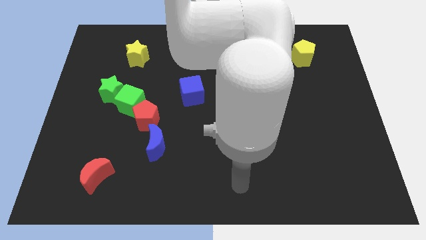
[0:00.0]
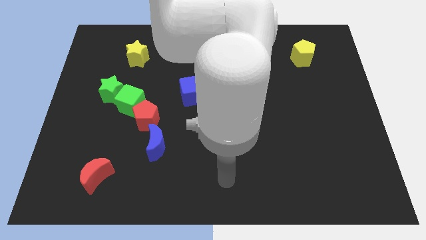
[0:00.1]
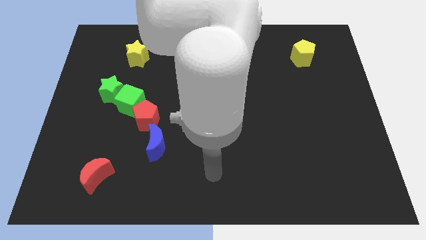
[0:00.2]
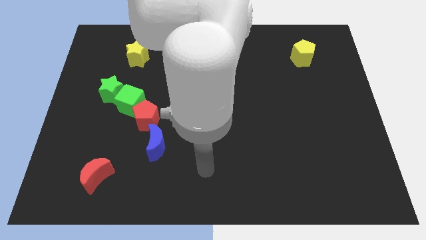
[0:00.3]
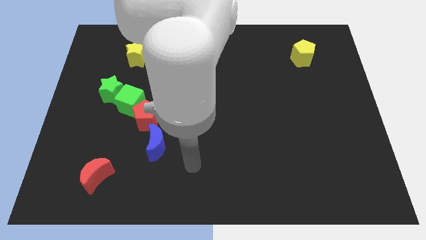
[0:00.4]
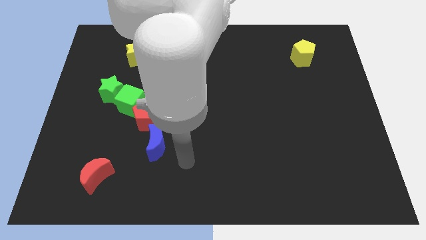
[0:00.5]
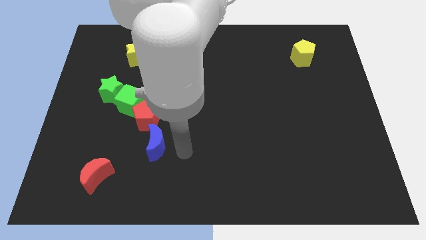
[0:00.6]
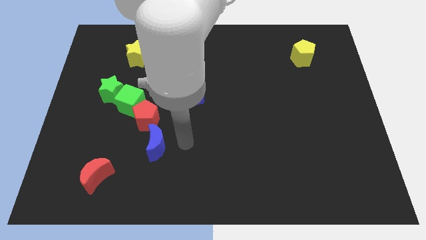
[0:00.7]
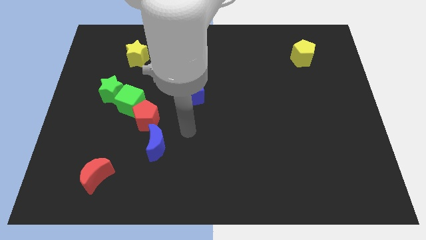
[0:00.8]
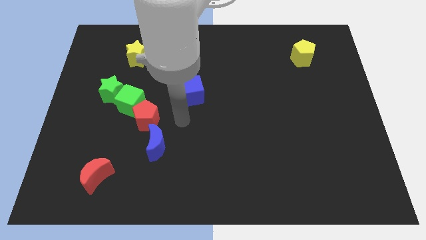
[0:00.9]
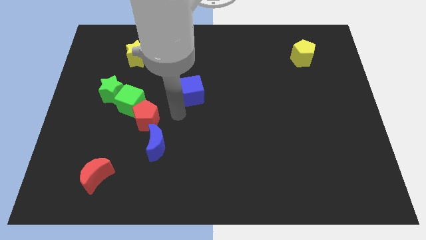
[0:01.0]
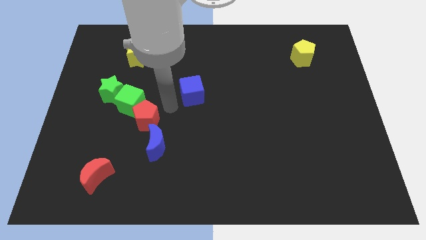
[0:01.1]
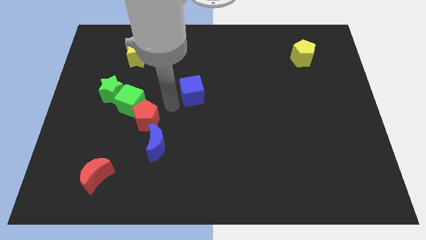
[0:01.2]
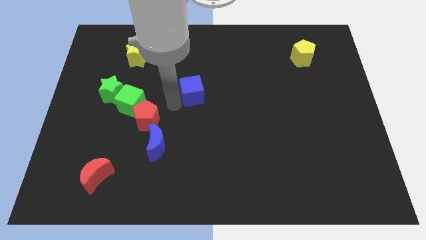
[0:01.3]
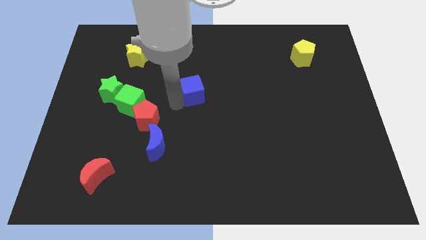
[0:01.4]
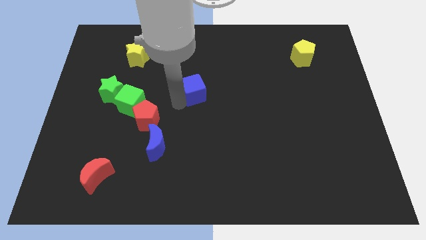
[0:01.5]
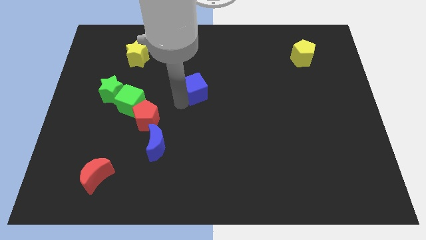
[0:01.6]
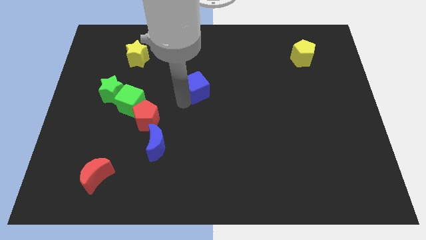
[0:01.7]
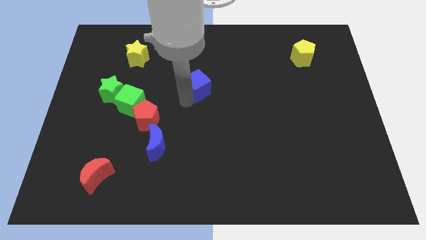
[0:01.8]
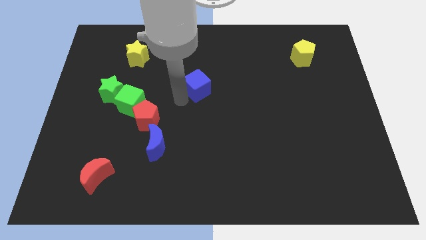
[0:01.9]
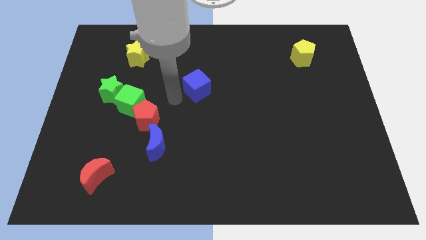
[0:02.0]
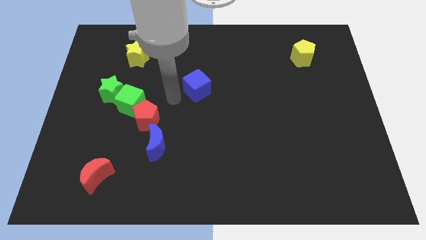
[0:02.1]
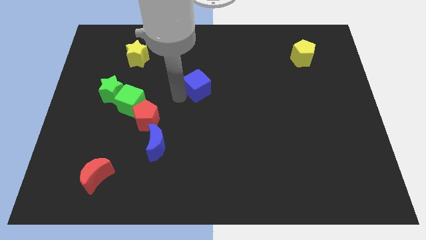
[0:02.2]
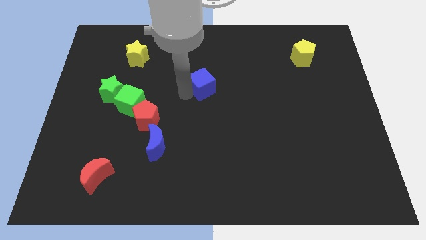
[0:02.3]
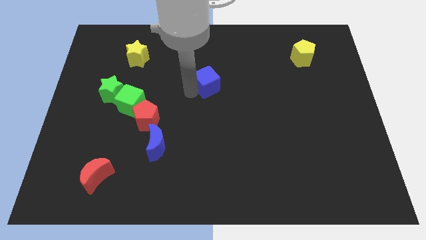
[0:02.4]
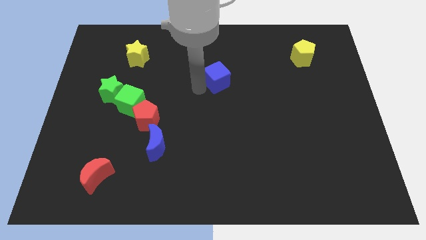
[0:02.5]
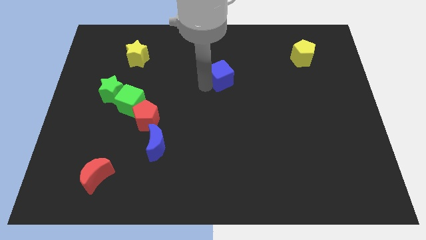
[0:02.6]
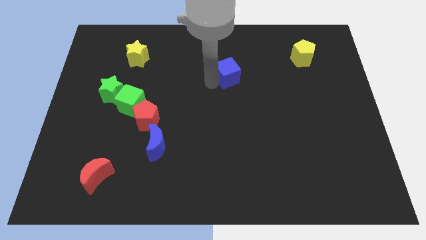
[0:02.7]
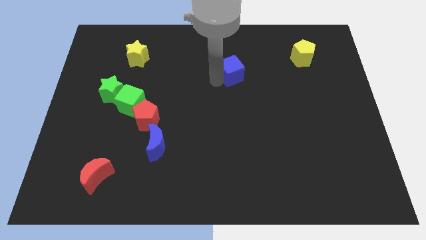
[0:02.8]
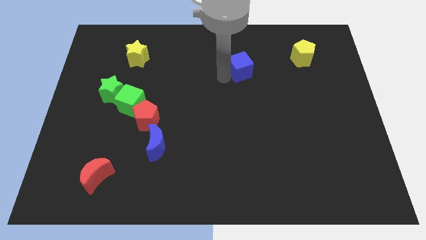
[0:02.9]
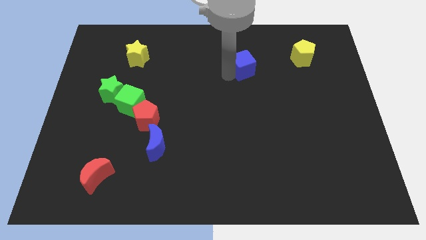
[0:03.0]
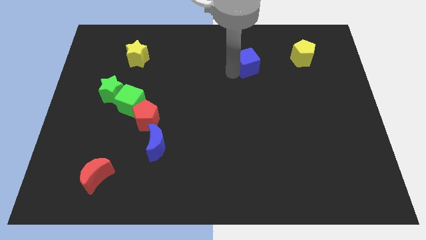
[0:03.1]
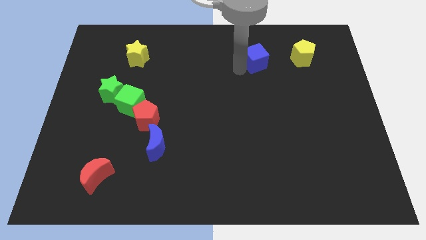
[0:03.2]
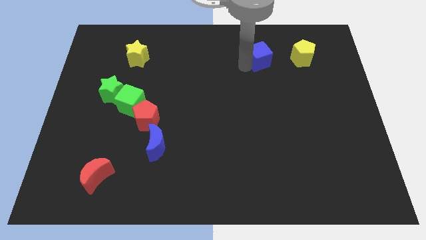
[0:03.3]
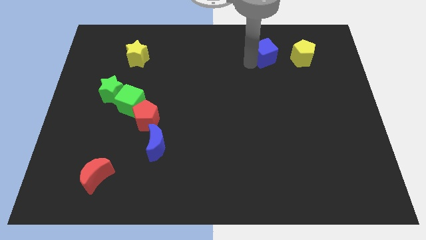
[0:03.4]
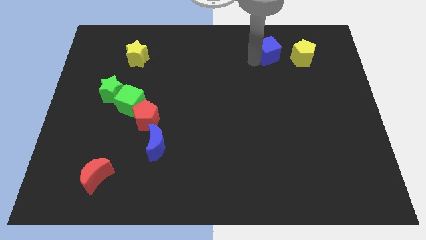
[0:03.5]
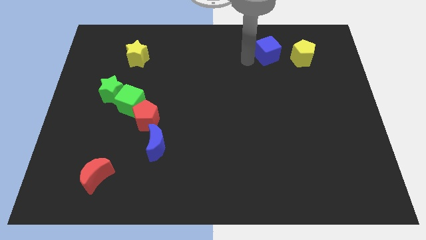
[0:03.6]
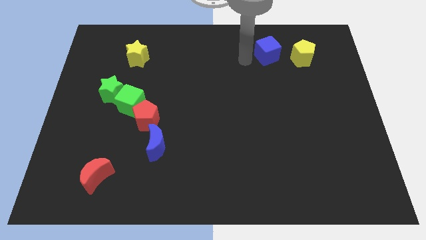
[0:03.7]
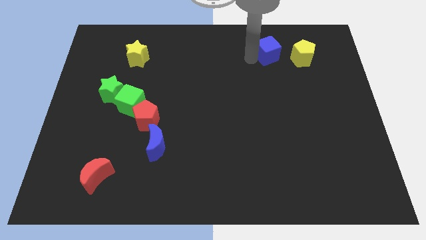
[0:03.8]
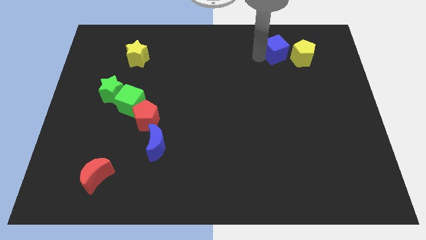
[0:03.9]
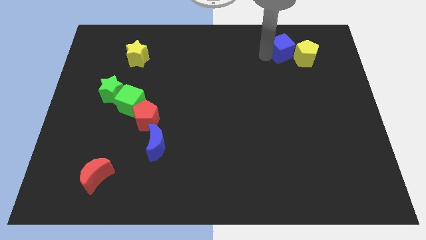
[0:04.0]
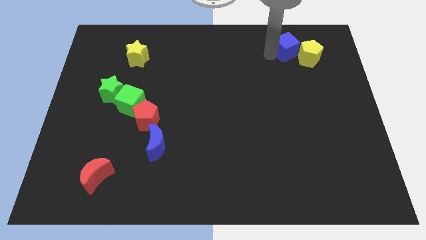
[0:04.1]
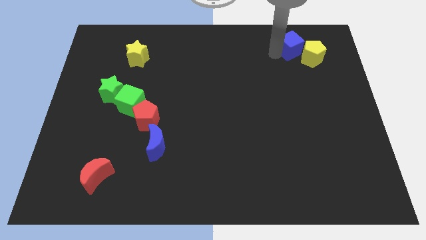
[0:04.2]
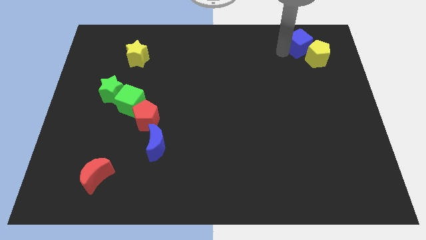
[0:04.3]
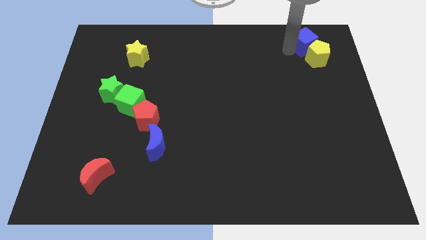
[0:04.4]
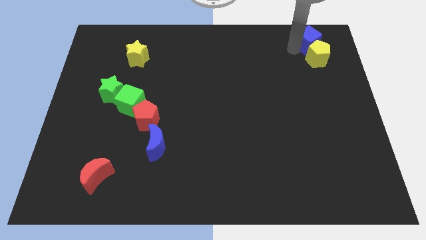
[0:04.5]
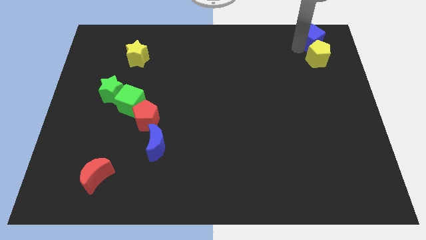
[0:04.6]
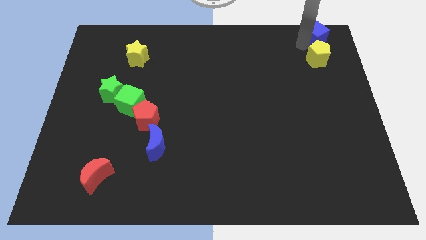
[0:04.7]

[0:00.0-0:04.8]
put the blue cube to the top right of the board

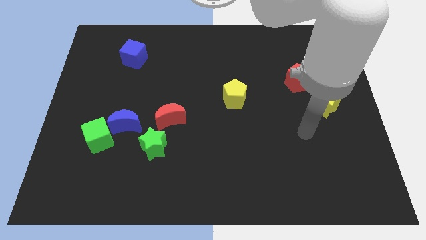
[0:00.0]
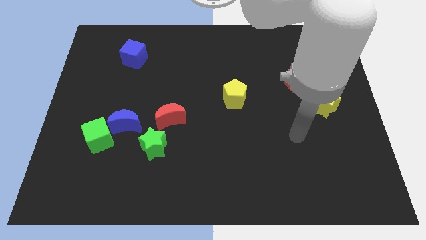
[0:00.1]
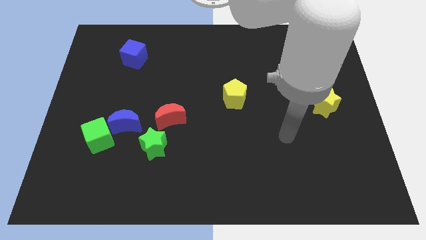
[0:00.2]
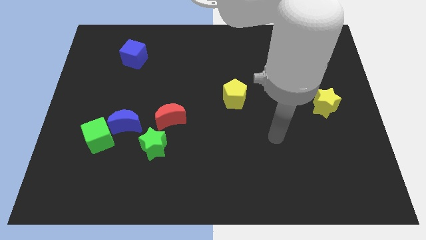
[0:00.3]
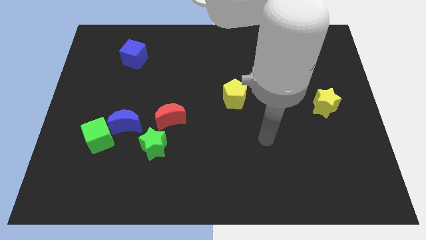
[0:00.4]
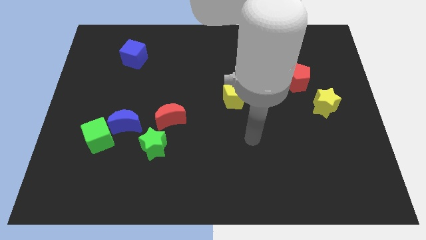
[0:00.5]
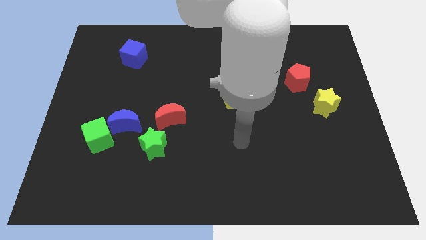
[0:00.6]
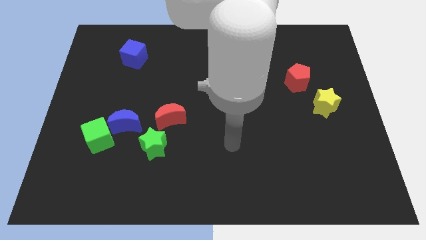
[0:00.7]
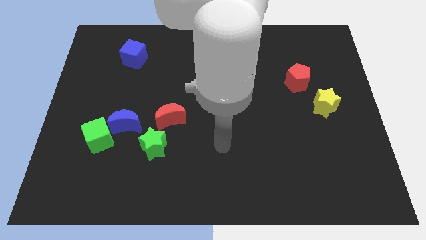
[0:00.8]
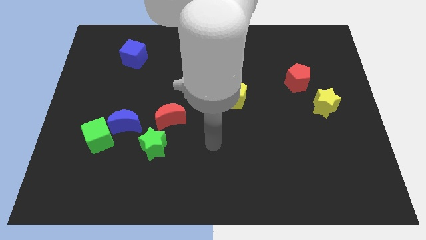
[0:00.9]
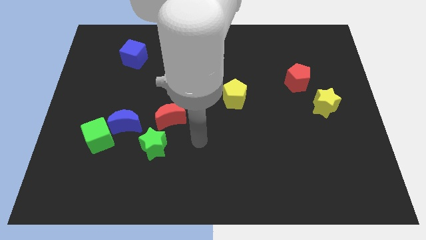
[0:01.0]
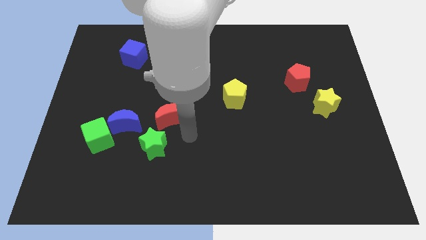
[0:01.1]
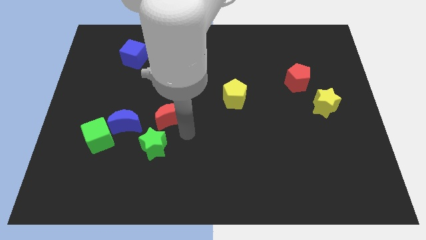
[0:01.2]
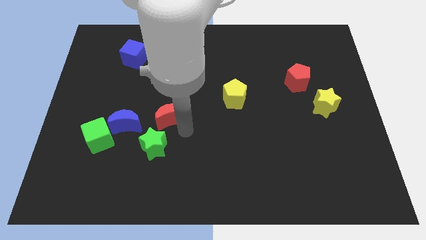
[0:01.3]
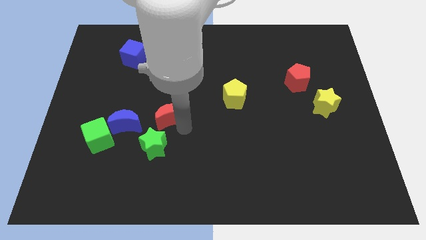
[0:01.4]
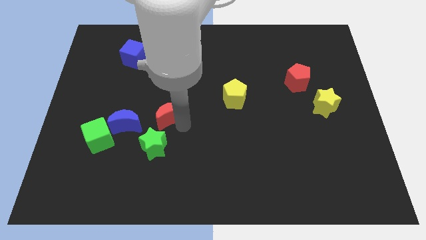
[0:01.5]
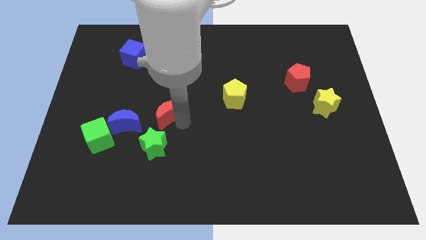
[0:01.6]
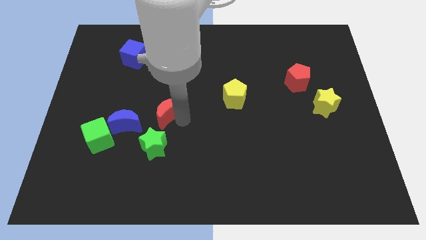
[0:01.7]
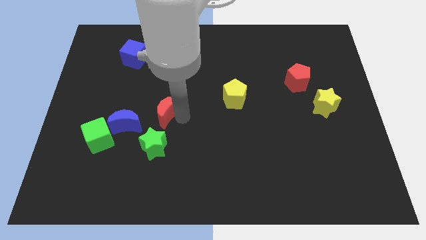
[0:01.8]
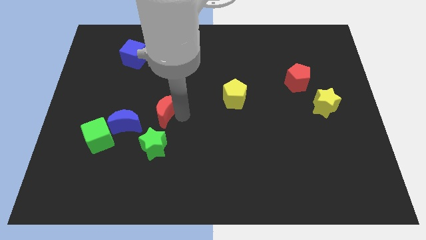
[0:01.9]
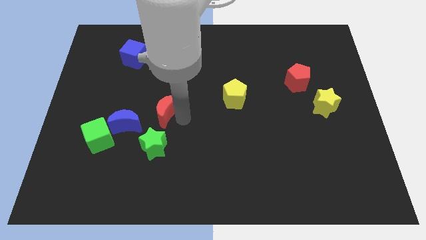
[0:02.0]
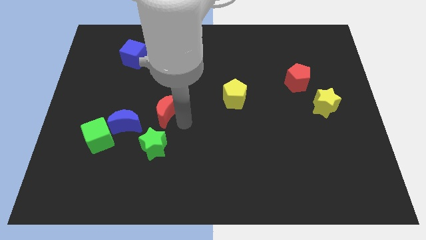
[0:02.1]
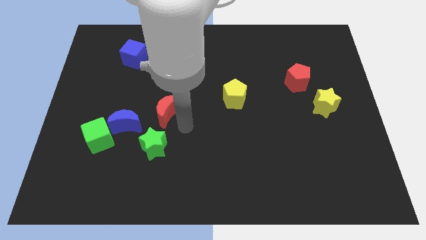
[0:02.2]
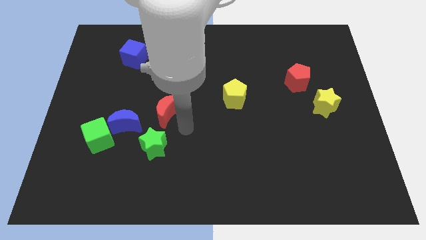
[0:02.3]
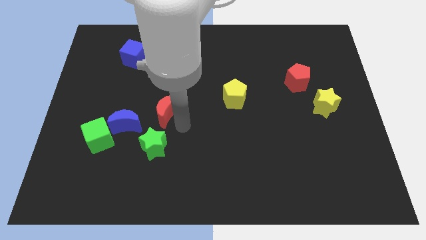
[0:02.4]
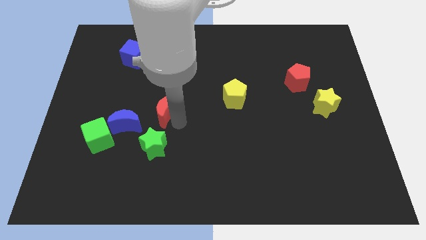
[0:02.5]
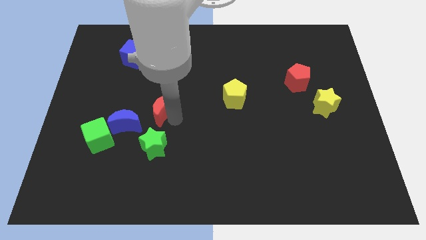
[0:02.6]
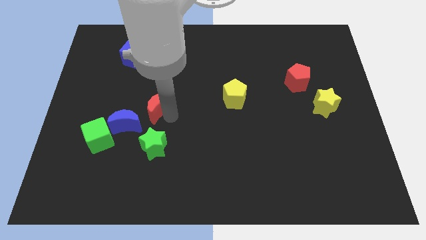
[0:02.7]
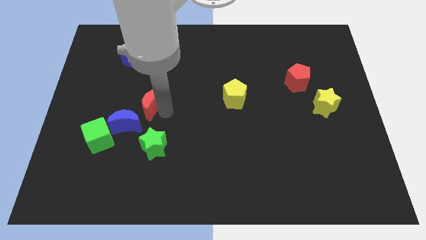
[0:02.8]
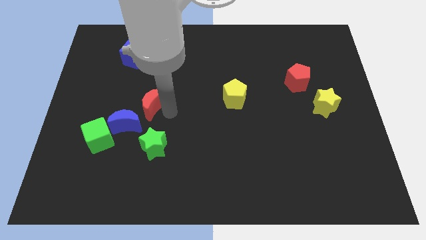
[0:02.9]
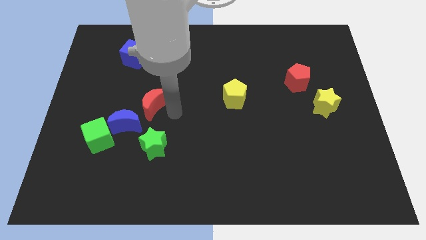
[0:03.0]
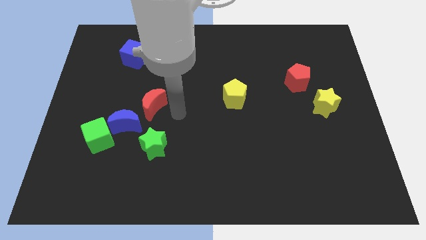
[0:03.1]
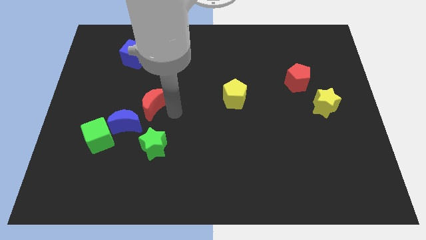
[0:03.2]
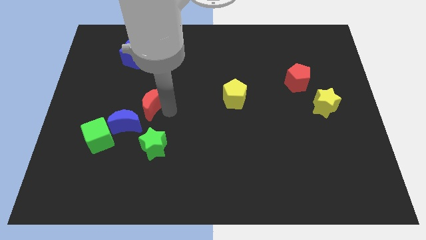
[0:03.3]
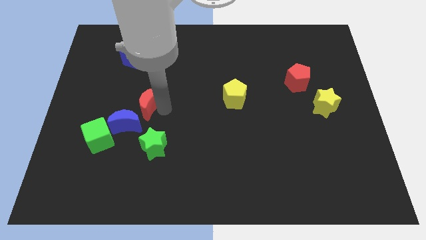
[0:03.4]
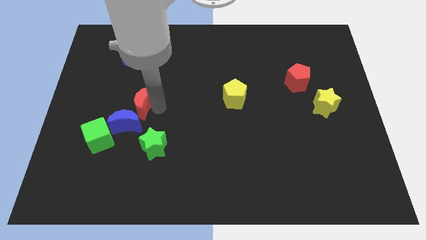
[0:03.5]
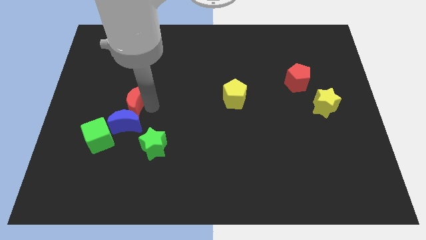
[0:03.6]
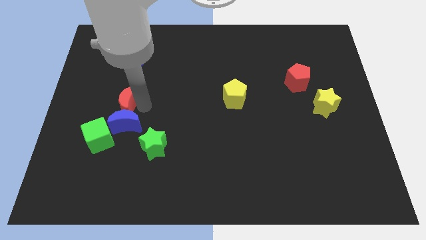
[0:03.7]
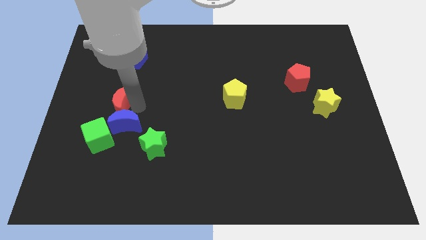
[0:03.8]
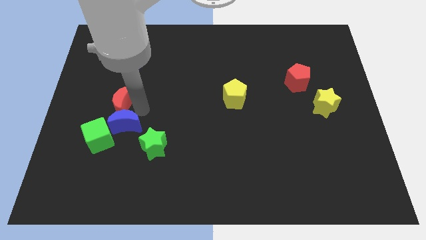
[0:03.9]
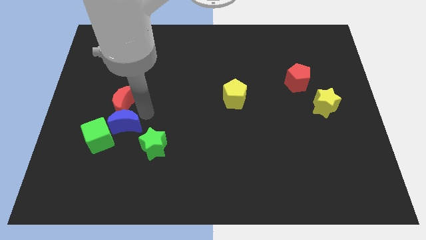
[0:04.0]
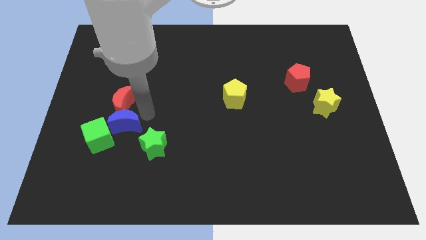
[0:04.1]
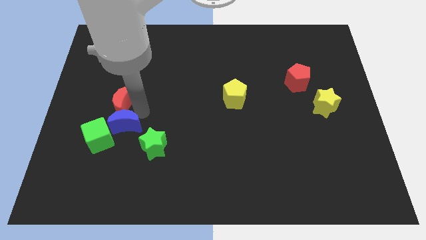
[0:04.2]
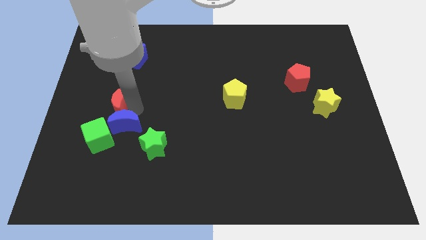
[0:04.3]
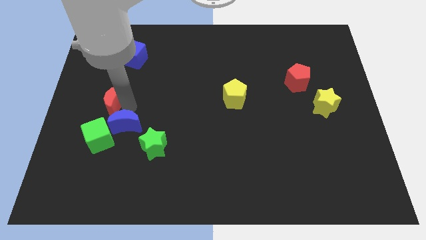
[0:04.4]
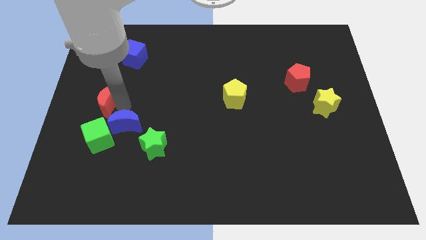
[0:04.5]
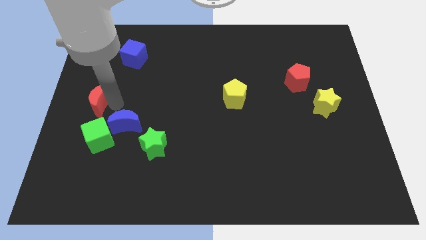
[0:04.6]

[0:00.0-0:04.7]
push the red moon to the left side of the board
